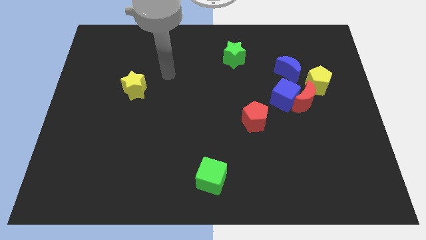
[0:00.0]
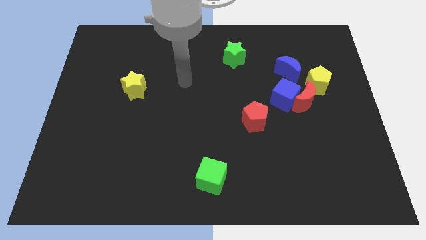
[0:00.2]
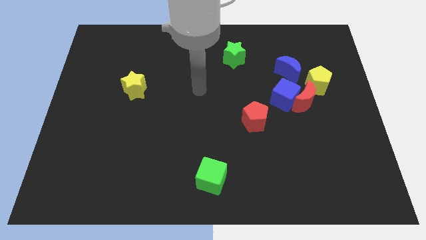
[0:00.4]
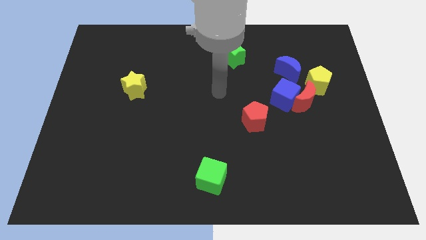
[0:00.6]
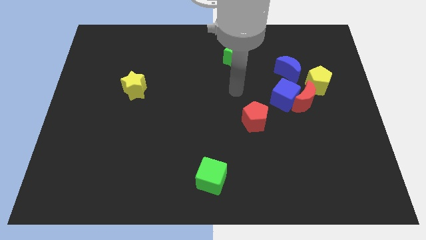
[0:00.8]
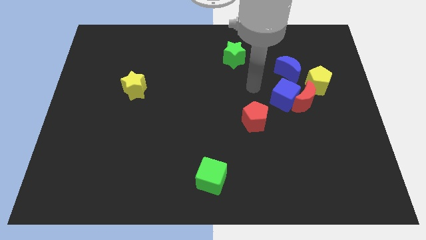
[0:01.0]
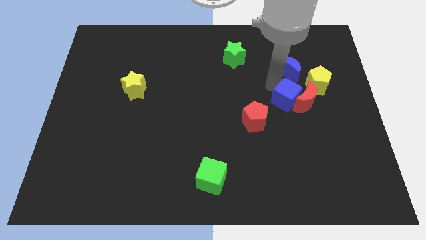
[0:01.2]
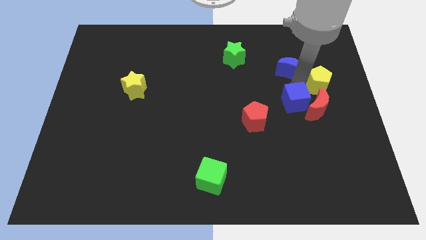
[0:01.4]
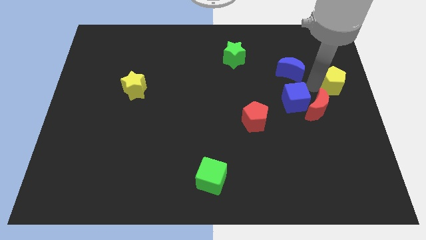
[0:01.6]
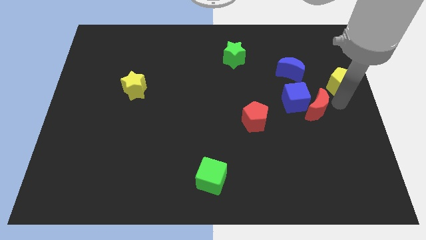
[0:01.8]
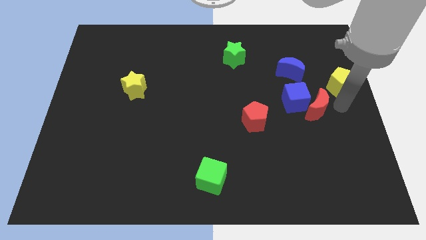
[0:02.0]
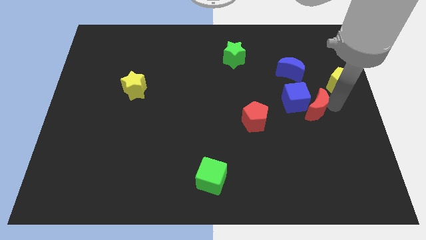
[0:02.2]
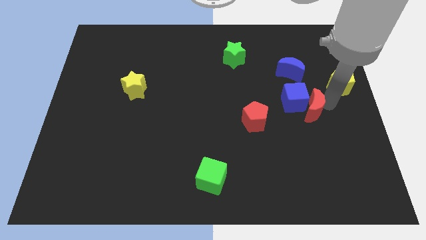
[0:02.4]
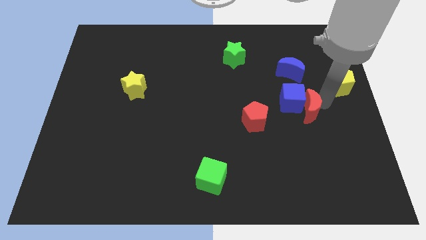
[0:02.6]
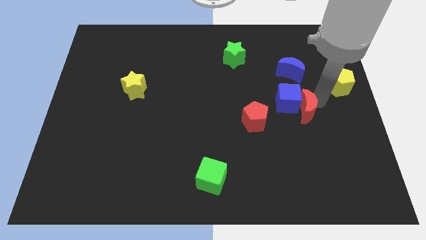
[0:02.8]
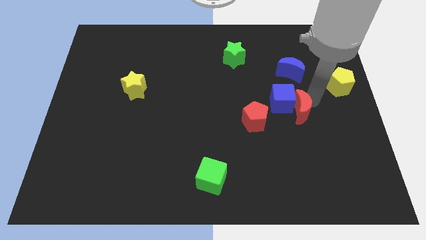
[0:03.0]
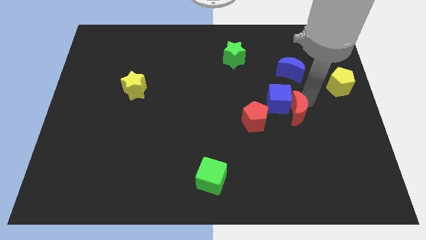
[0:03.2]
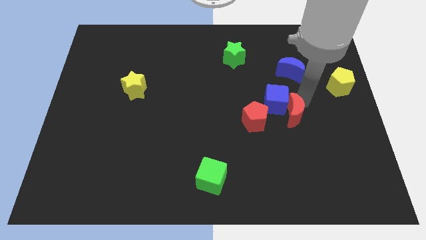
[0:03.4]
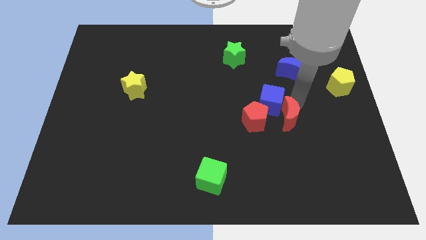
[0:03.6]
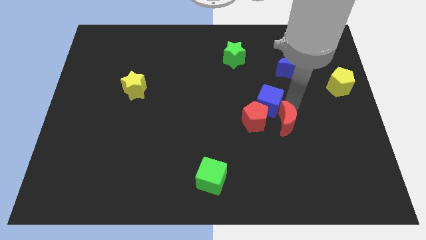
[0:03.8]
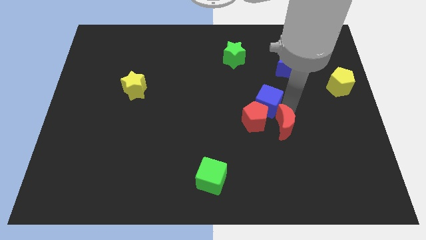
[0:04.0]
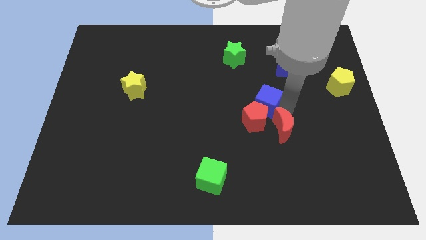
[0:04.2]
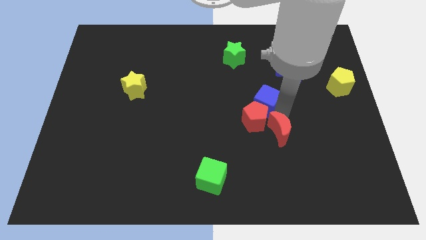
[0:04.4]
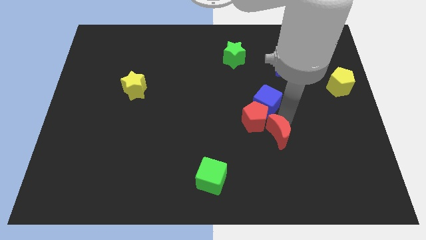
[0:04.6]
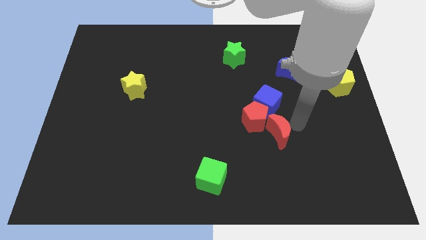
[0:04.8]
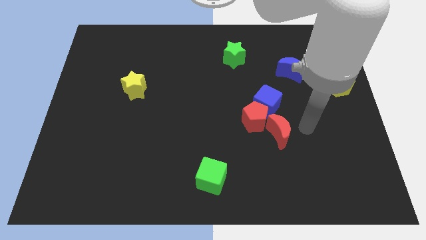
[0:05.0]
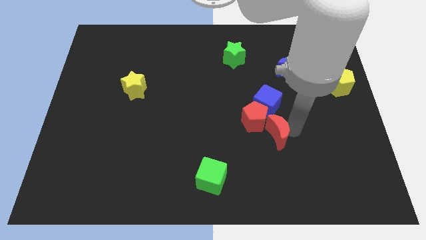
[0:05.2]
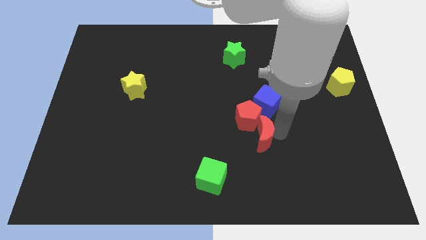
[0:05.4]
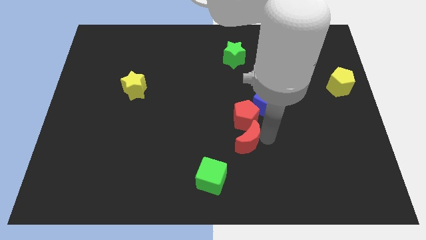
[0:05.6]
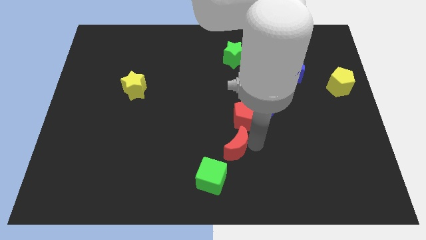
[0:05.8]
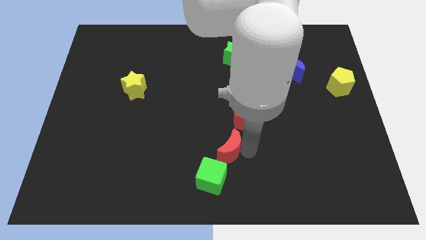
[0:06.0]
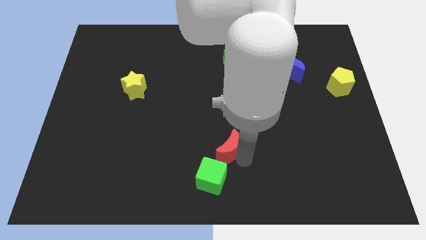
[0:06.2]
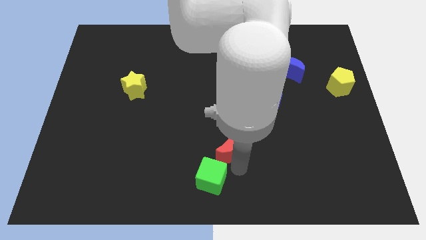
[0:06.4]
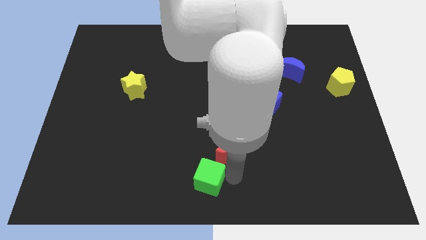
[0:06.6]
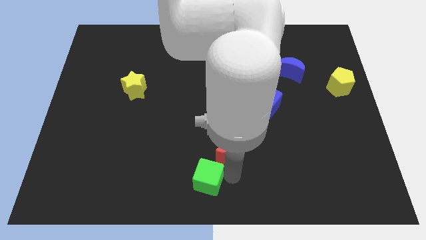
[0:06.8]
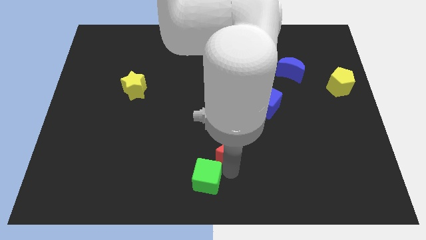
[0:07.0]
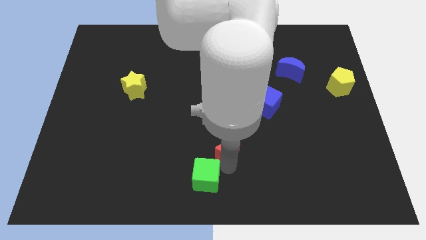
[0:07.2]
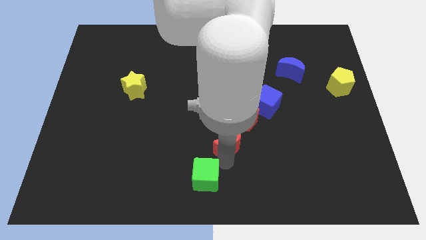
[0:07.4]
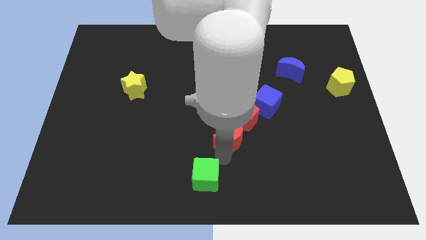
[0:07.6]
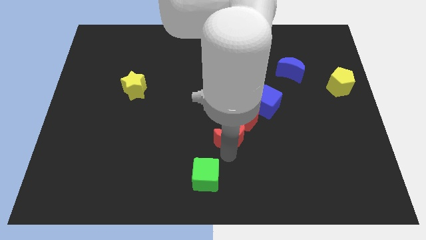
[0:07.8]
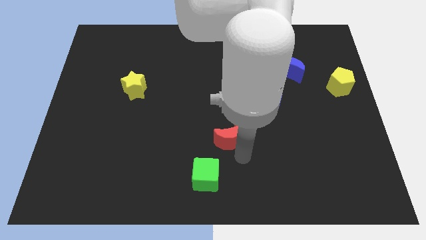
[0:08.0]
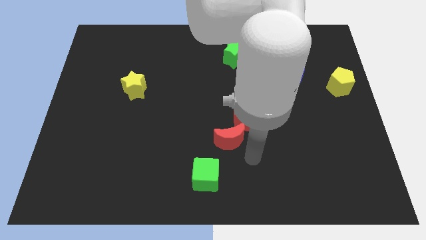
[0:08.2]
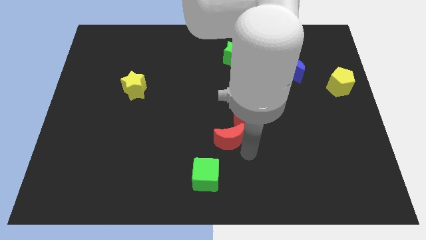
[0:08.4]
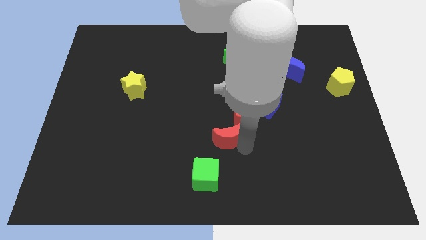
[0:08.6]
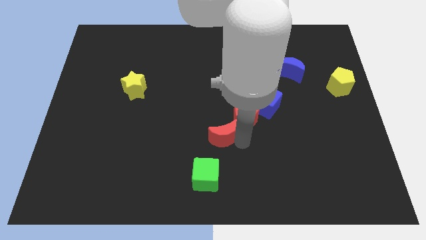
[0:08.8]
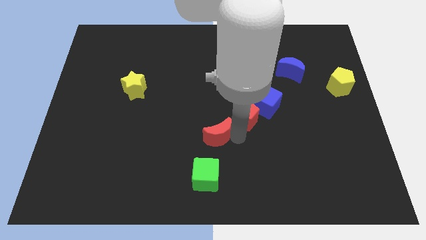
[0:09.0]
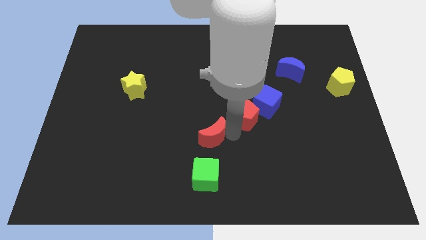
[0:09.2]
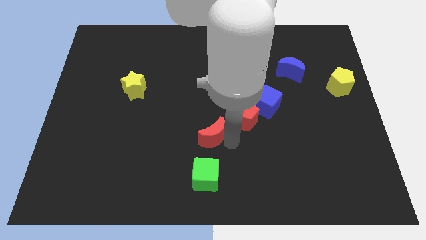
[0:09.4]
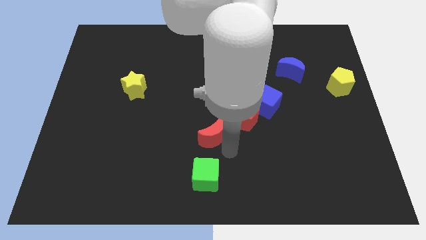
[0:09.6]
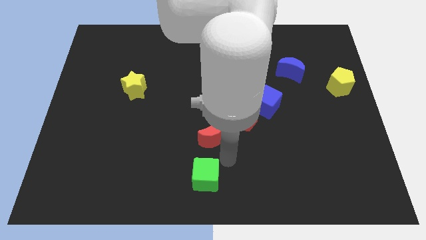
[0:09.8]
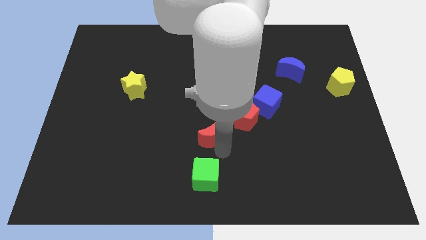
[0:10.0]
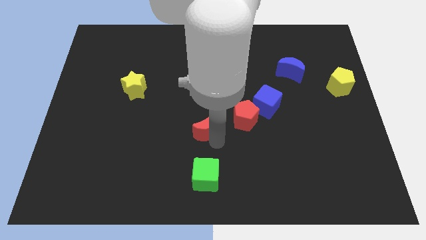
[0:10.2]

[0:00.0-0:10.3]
move the red moon to the left

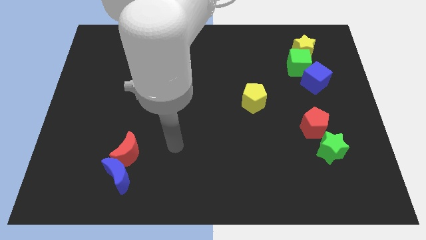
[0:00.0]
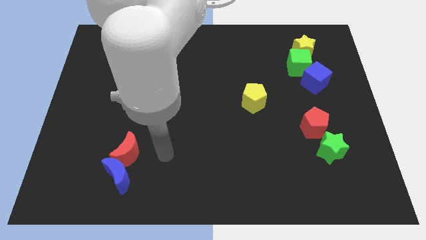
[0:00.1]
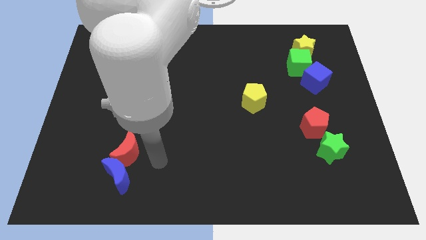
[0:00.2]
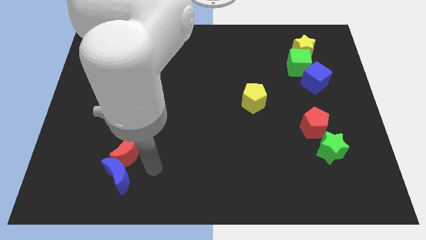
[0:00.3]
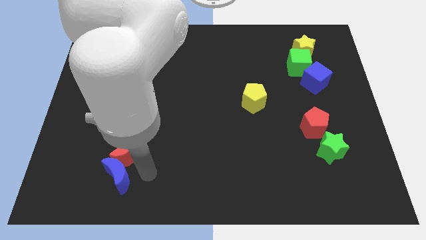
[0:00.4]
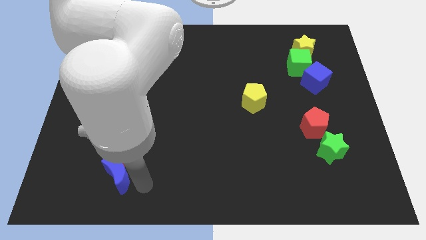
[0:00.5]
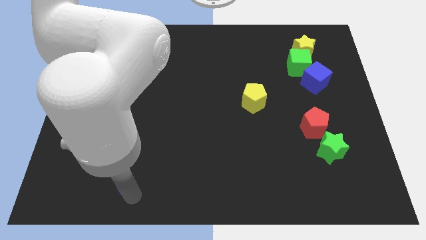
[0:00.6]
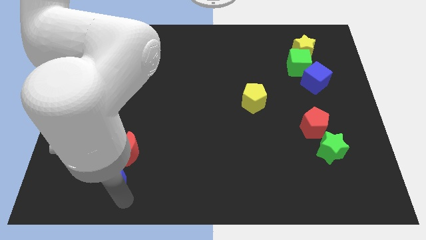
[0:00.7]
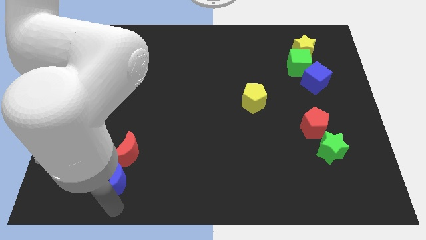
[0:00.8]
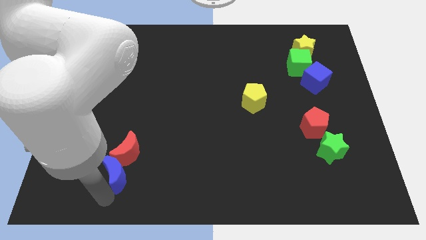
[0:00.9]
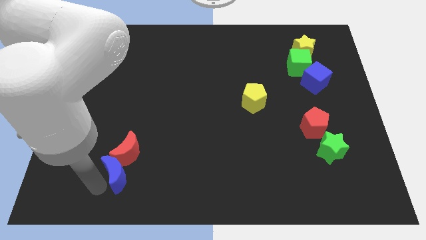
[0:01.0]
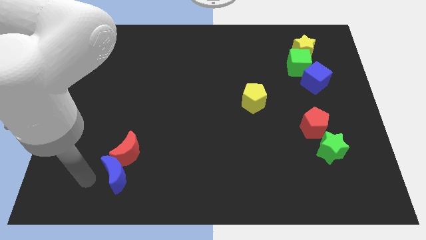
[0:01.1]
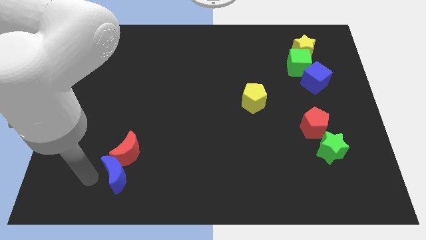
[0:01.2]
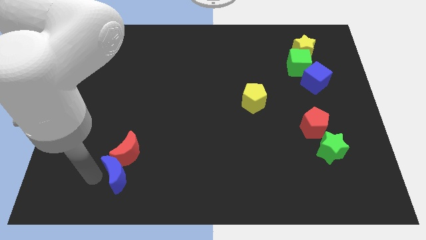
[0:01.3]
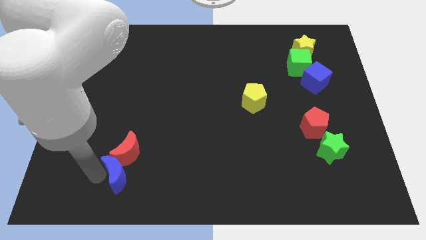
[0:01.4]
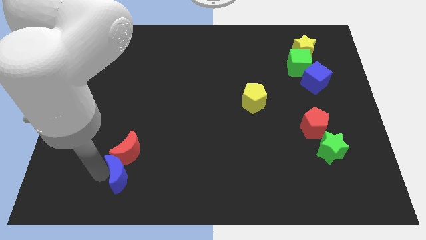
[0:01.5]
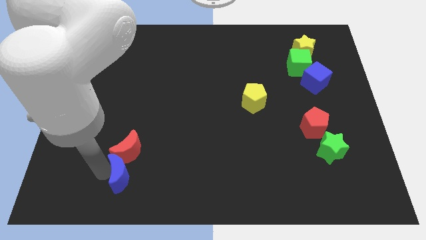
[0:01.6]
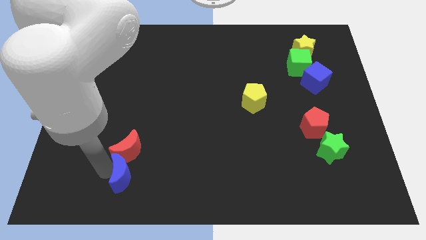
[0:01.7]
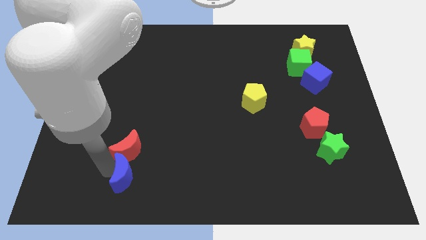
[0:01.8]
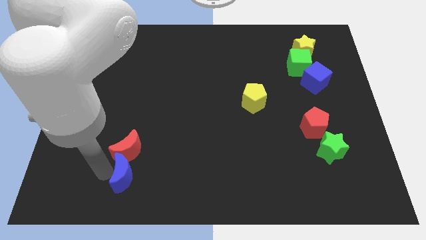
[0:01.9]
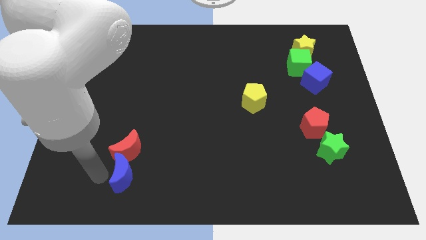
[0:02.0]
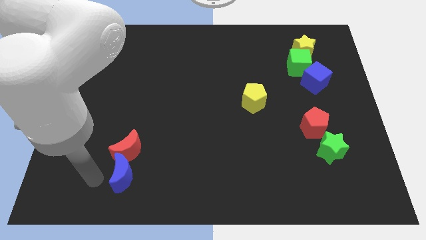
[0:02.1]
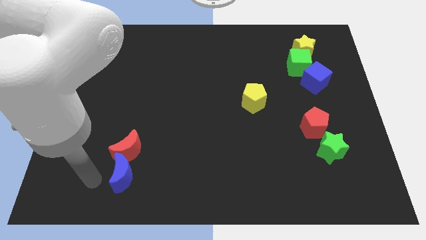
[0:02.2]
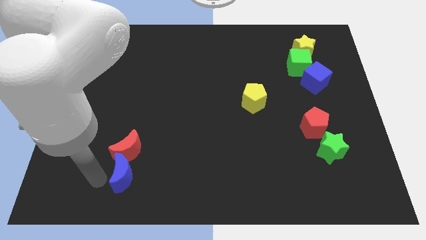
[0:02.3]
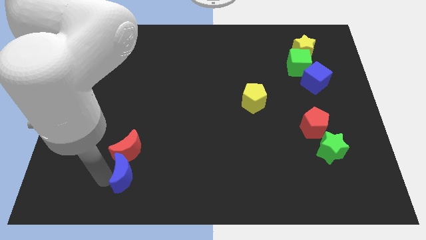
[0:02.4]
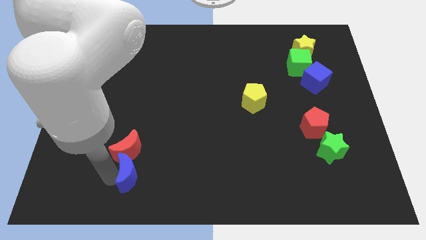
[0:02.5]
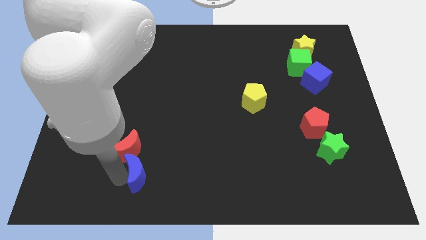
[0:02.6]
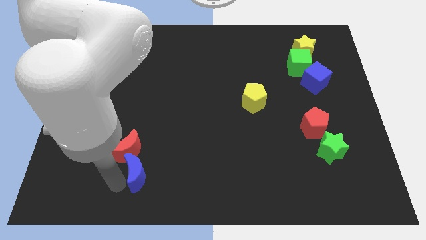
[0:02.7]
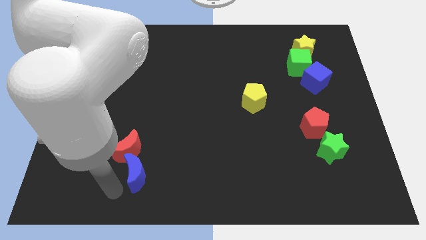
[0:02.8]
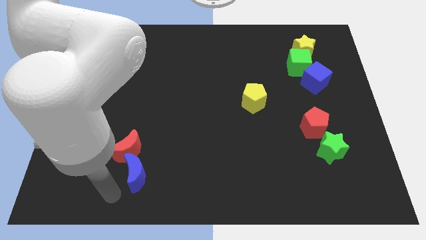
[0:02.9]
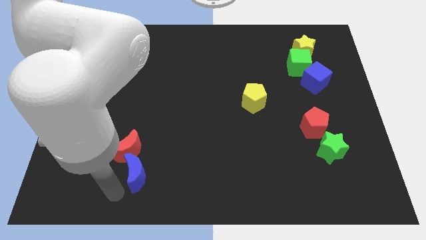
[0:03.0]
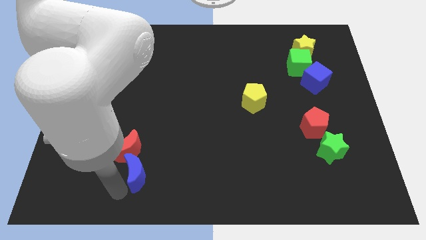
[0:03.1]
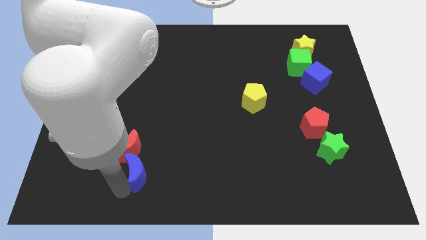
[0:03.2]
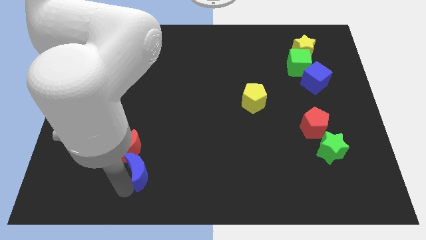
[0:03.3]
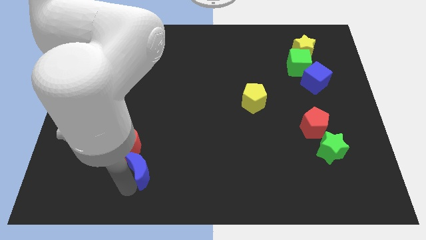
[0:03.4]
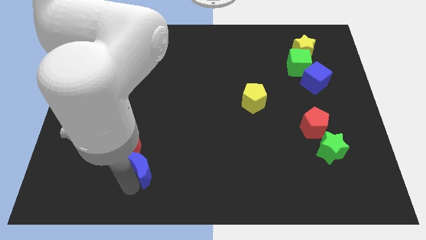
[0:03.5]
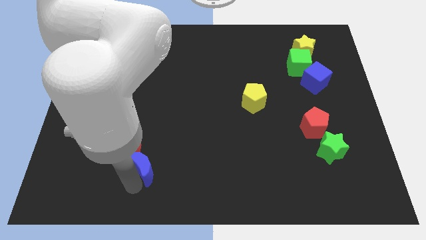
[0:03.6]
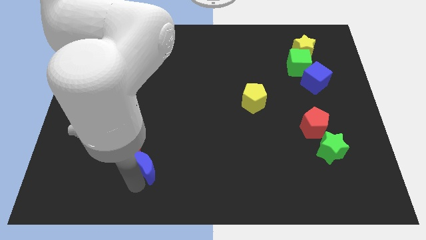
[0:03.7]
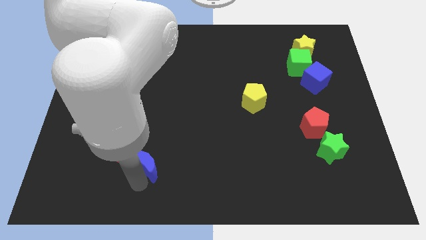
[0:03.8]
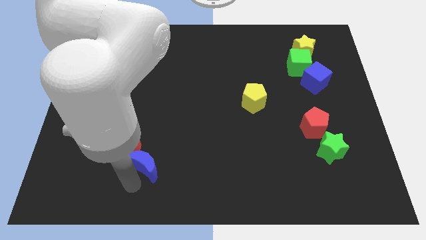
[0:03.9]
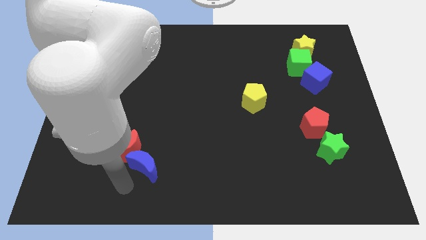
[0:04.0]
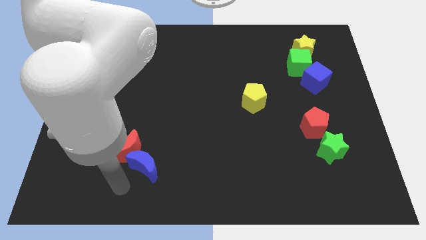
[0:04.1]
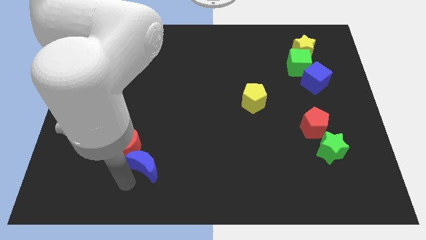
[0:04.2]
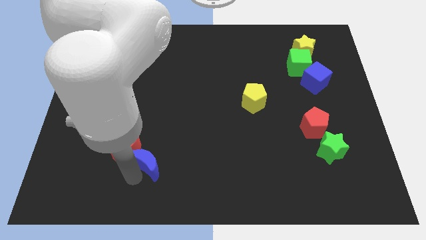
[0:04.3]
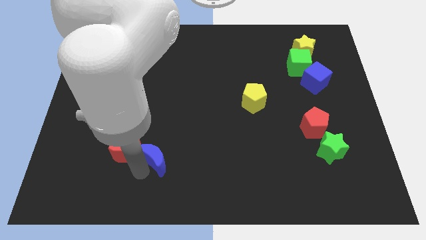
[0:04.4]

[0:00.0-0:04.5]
move the blue moon up and right diagonally a bit
